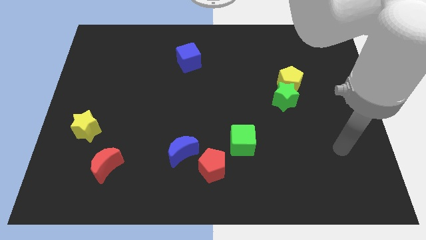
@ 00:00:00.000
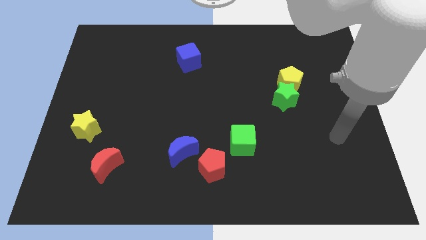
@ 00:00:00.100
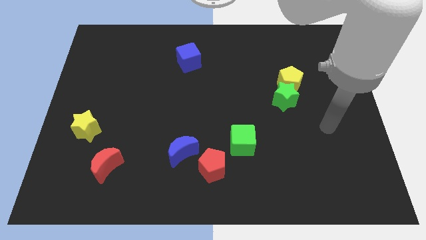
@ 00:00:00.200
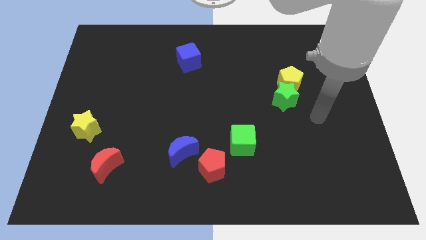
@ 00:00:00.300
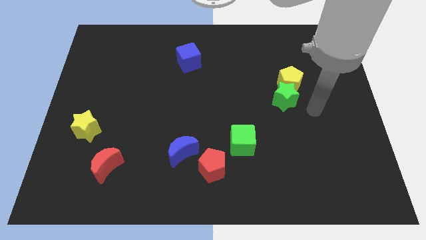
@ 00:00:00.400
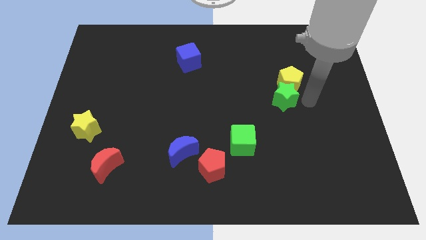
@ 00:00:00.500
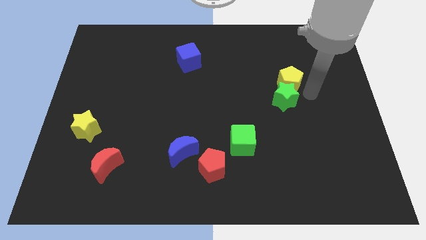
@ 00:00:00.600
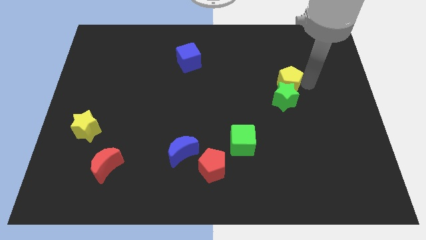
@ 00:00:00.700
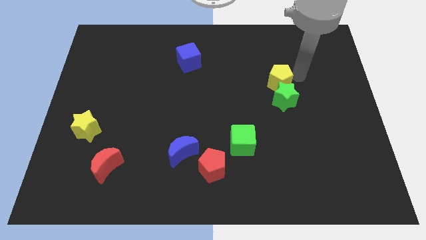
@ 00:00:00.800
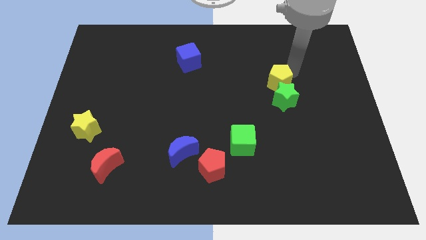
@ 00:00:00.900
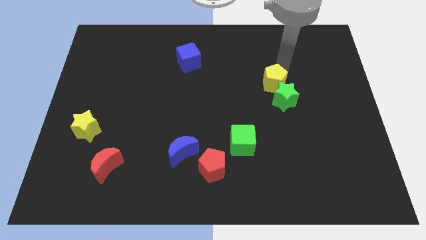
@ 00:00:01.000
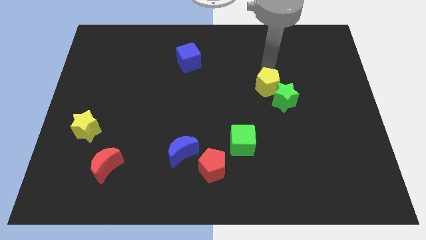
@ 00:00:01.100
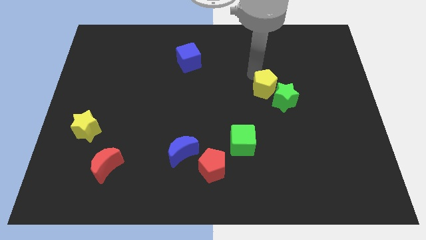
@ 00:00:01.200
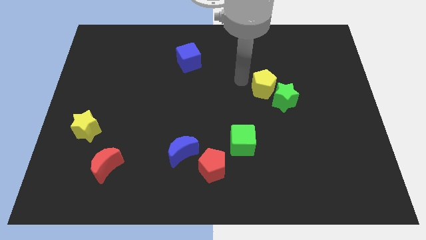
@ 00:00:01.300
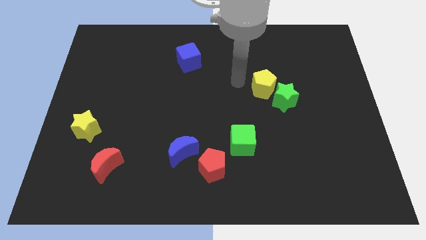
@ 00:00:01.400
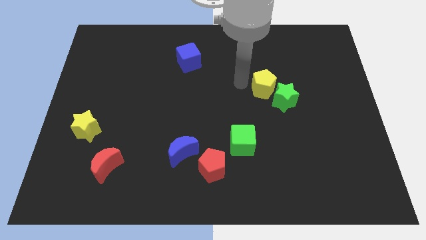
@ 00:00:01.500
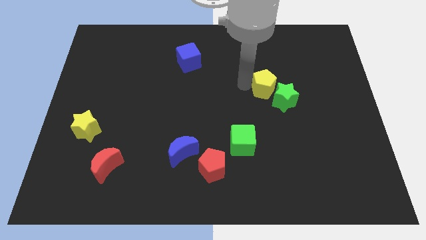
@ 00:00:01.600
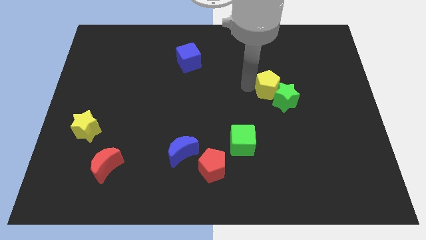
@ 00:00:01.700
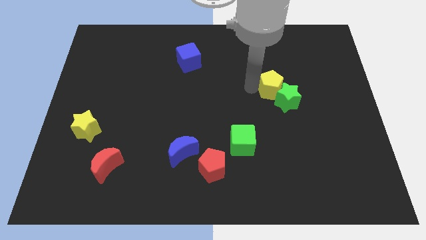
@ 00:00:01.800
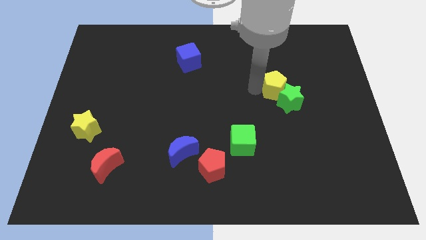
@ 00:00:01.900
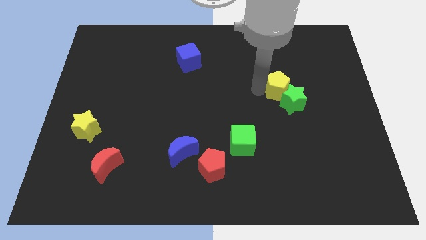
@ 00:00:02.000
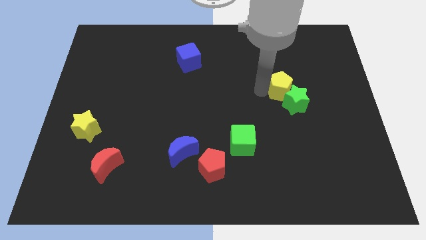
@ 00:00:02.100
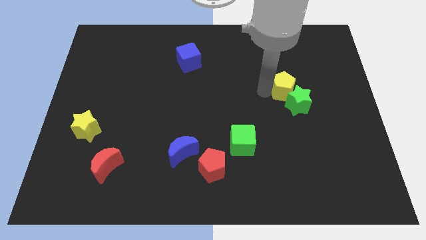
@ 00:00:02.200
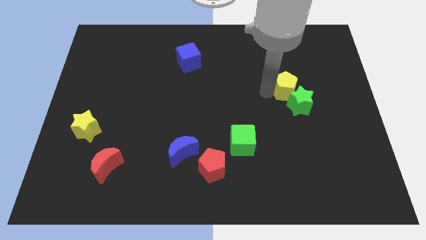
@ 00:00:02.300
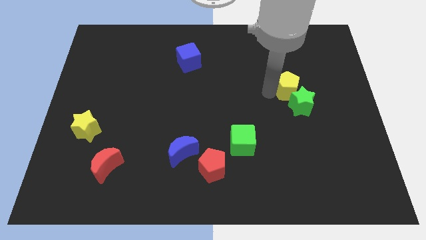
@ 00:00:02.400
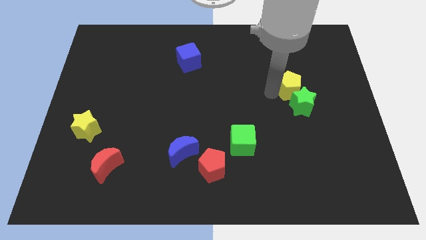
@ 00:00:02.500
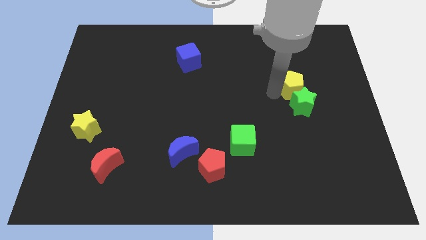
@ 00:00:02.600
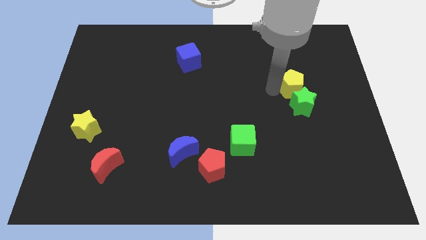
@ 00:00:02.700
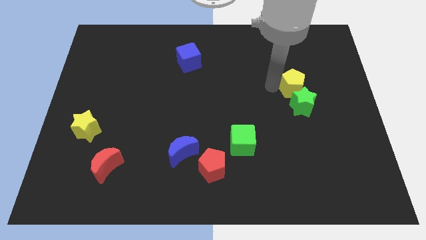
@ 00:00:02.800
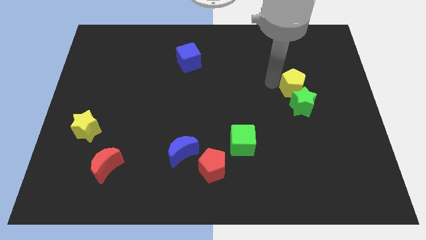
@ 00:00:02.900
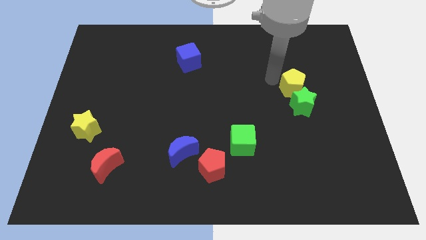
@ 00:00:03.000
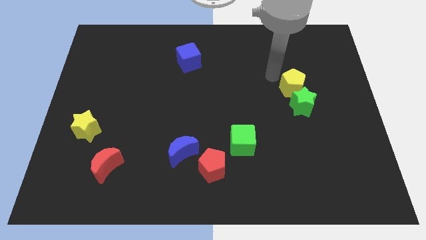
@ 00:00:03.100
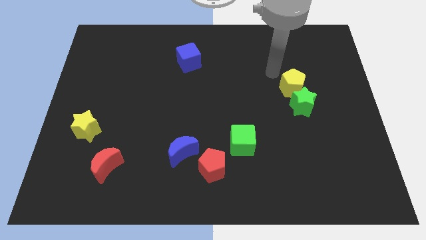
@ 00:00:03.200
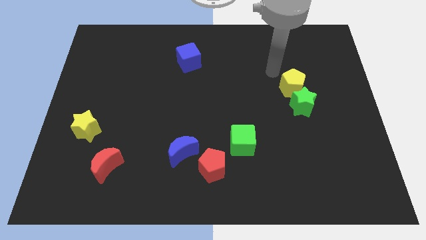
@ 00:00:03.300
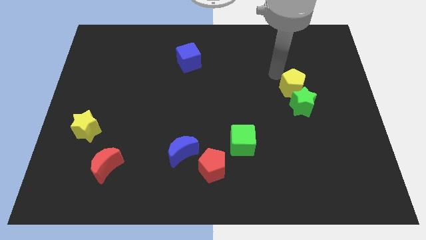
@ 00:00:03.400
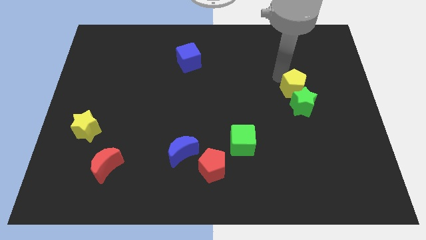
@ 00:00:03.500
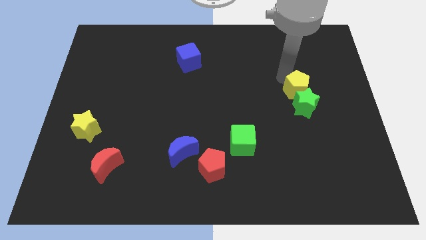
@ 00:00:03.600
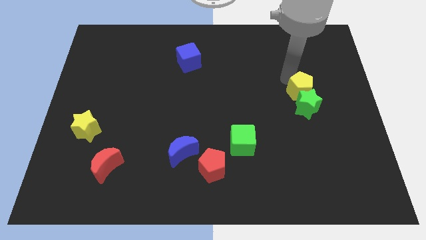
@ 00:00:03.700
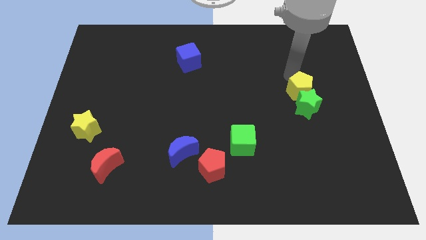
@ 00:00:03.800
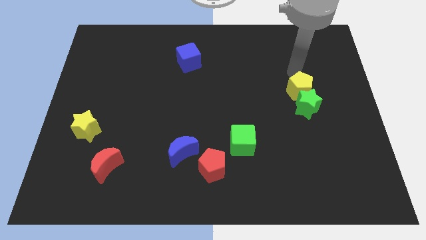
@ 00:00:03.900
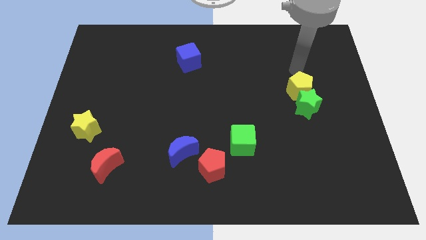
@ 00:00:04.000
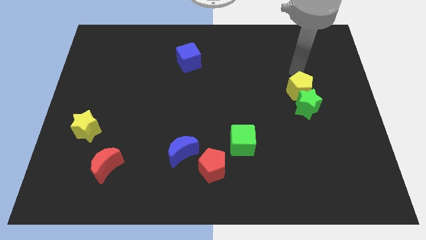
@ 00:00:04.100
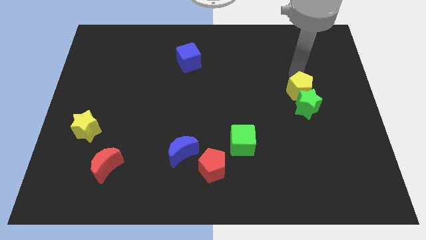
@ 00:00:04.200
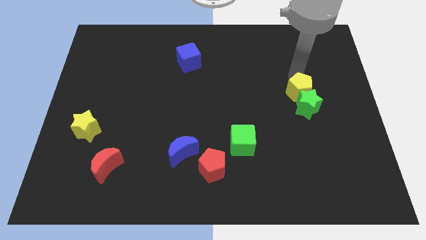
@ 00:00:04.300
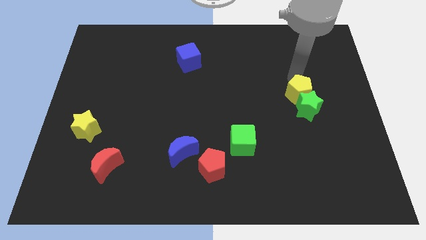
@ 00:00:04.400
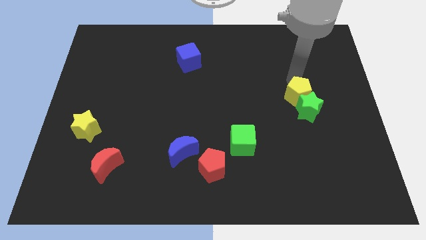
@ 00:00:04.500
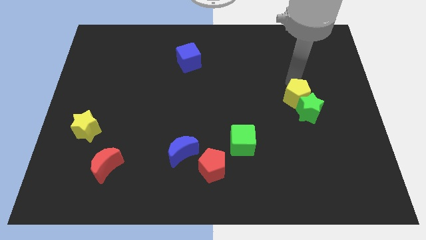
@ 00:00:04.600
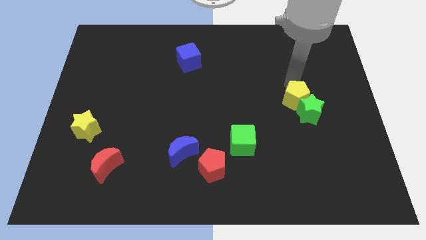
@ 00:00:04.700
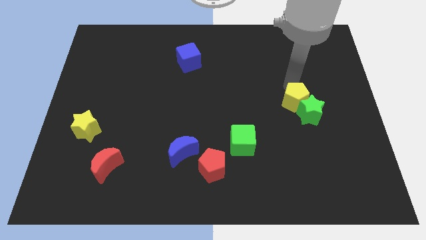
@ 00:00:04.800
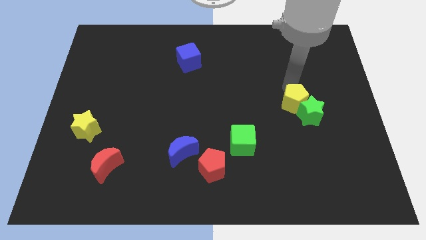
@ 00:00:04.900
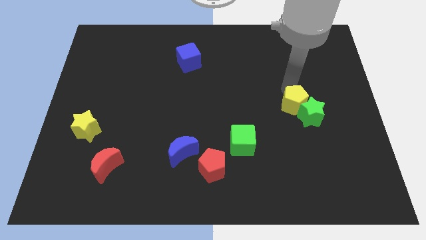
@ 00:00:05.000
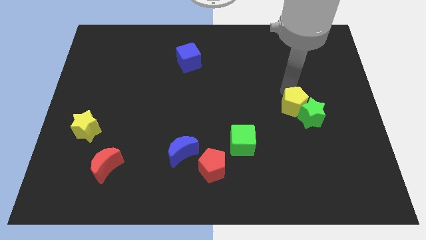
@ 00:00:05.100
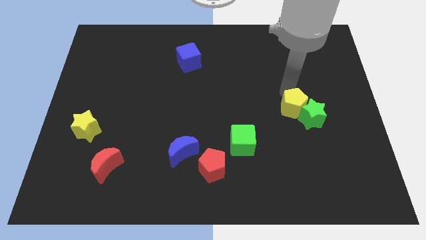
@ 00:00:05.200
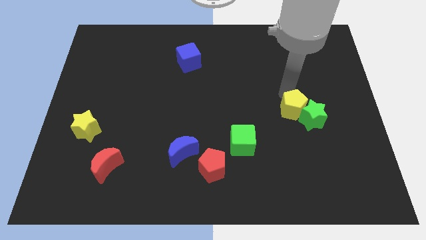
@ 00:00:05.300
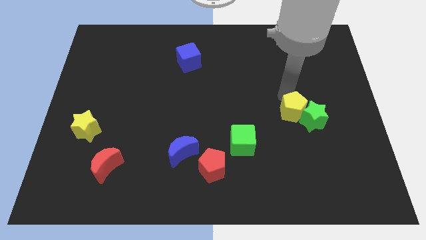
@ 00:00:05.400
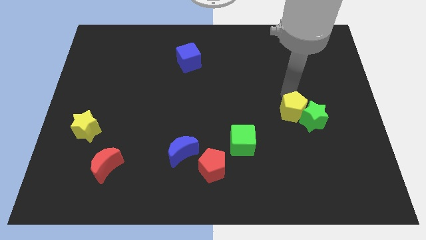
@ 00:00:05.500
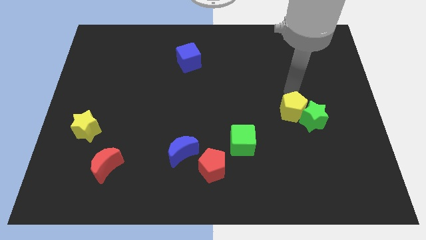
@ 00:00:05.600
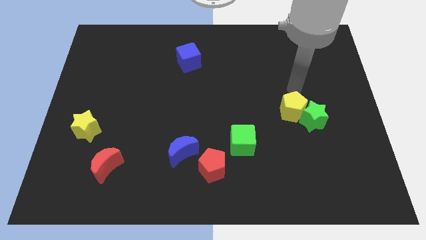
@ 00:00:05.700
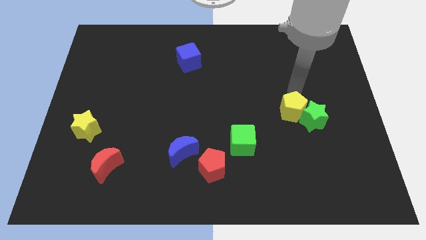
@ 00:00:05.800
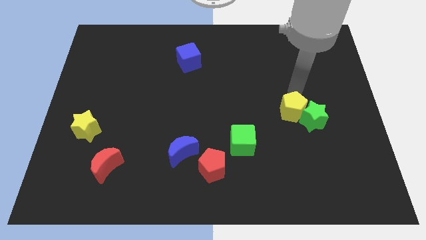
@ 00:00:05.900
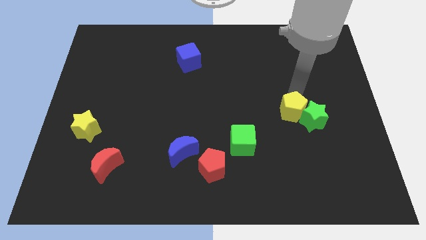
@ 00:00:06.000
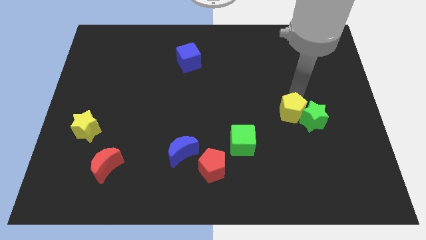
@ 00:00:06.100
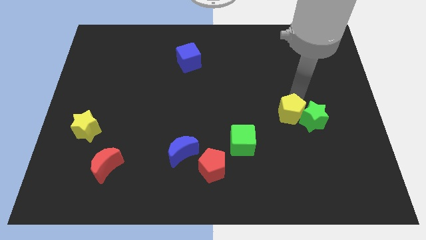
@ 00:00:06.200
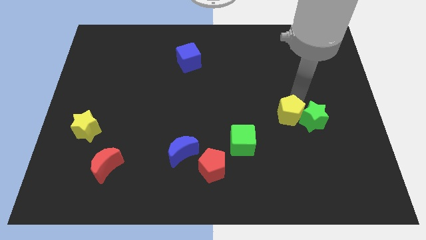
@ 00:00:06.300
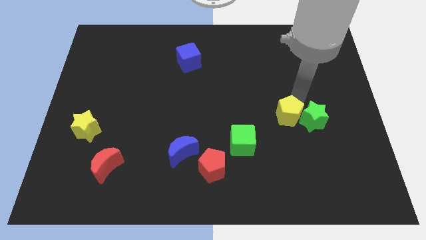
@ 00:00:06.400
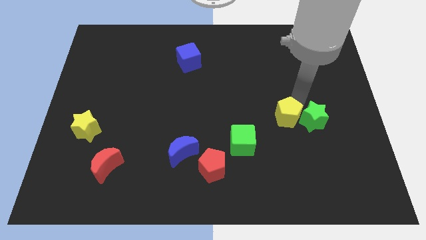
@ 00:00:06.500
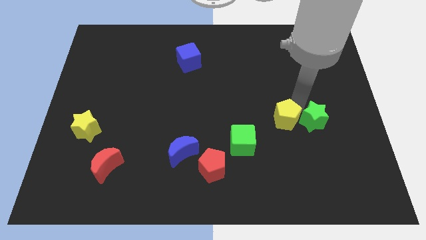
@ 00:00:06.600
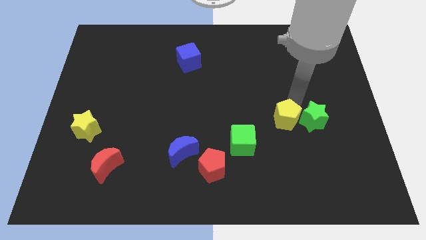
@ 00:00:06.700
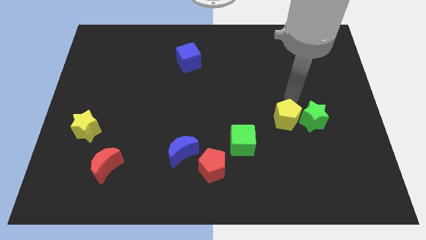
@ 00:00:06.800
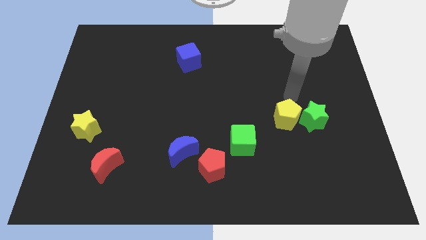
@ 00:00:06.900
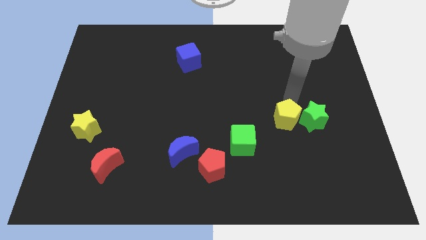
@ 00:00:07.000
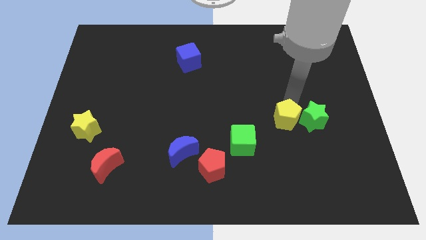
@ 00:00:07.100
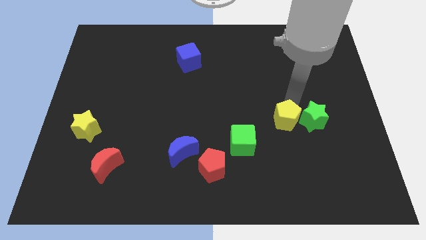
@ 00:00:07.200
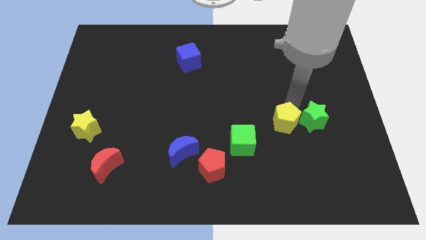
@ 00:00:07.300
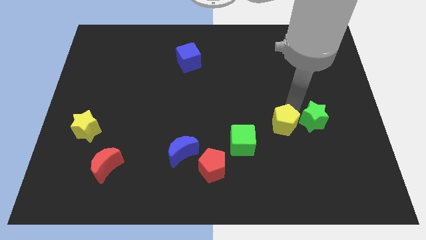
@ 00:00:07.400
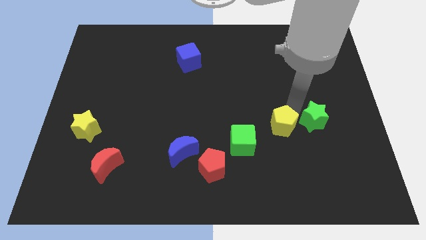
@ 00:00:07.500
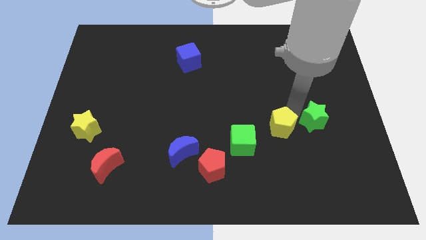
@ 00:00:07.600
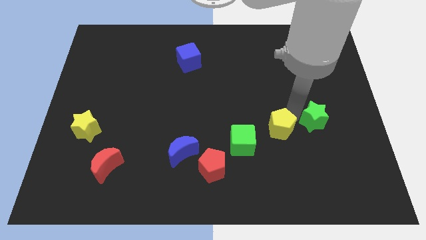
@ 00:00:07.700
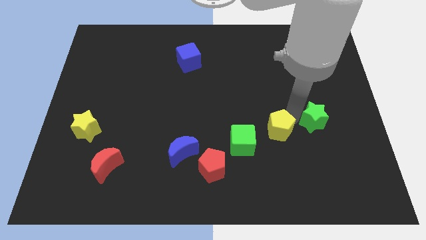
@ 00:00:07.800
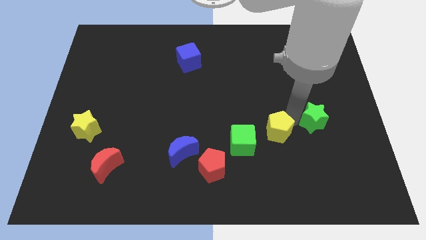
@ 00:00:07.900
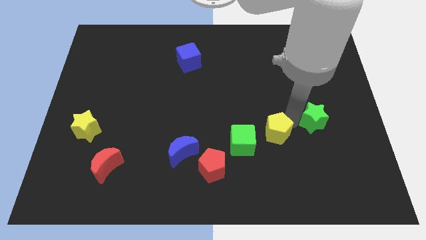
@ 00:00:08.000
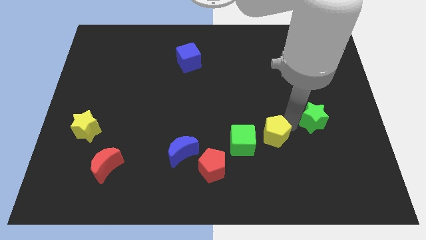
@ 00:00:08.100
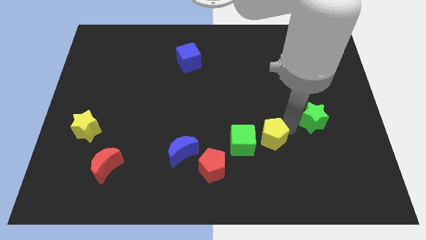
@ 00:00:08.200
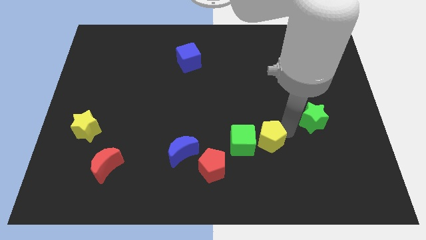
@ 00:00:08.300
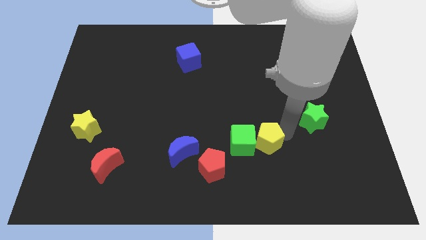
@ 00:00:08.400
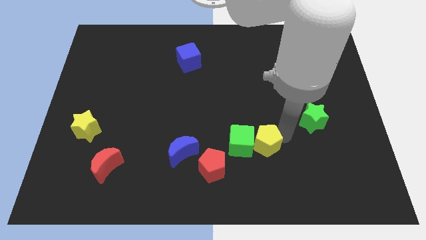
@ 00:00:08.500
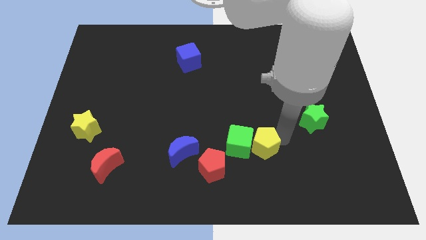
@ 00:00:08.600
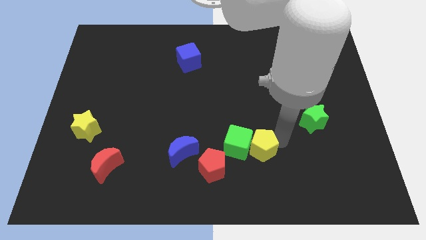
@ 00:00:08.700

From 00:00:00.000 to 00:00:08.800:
put the yellow pentagon to the right side of the red pentagon
